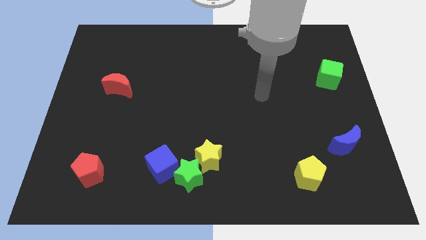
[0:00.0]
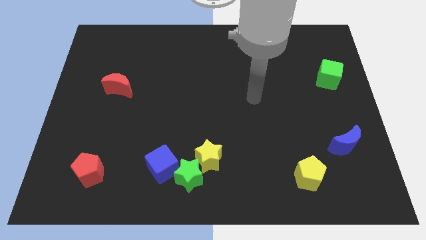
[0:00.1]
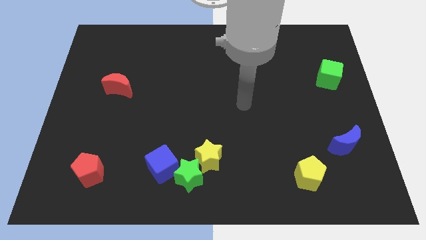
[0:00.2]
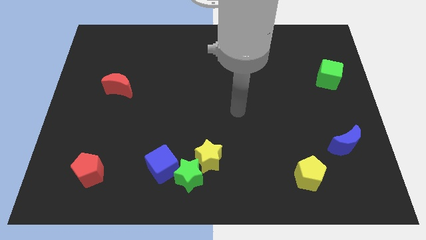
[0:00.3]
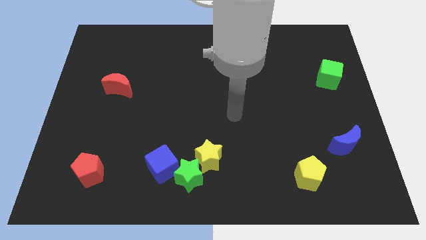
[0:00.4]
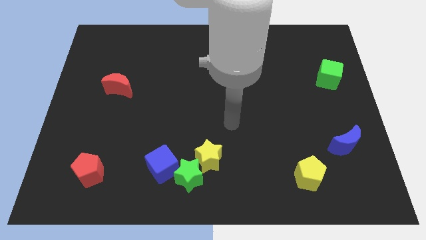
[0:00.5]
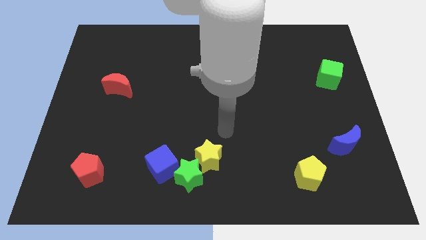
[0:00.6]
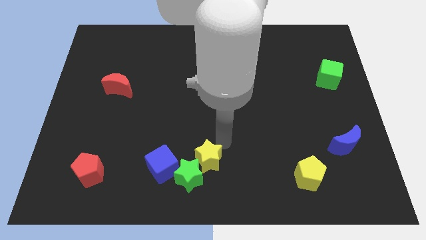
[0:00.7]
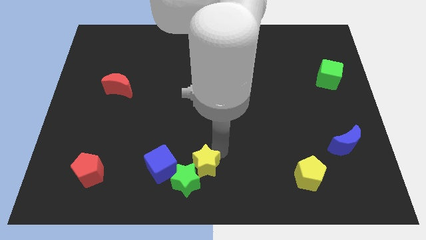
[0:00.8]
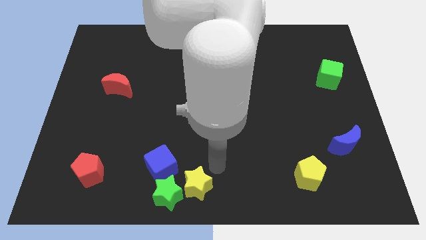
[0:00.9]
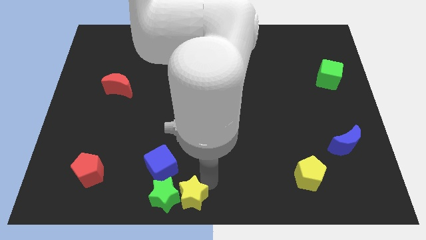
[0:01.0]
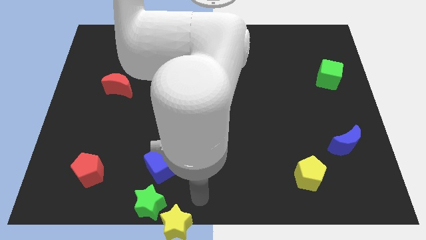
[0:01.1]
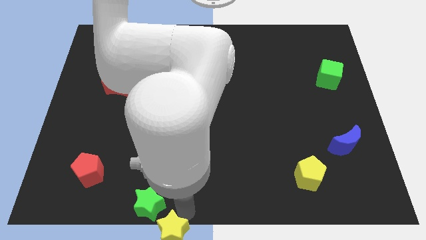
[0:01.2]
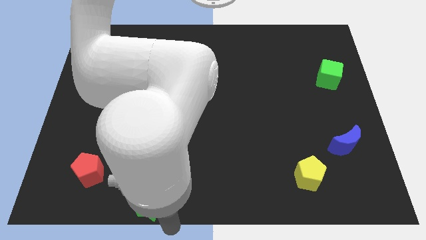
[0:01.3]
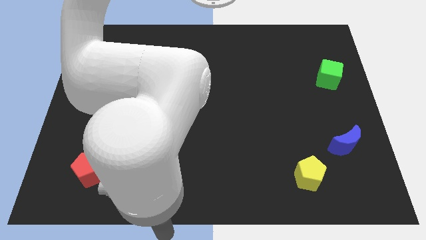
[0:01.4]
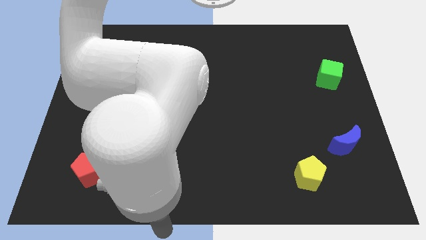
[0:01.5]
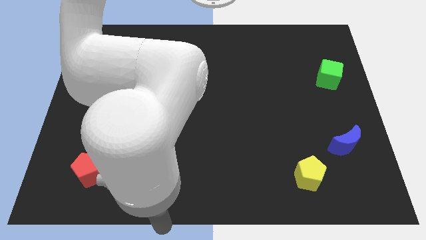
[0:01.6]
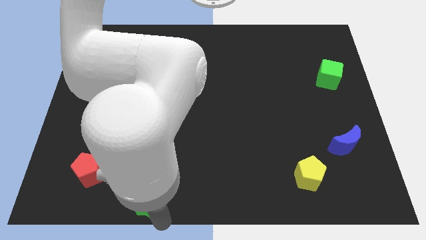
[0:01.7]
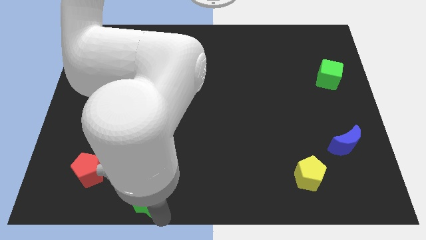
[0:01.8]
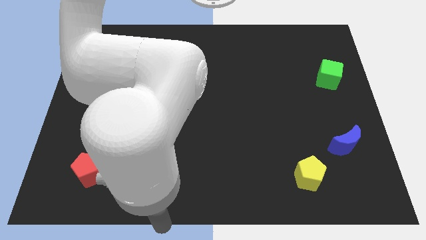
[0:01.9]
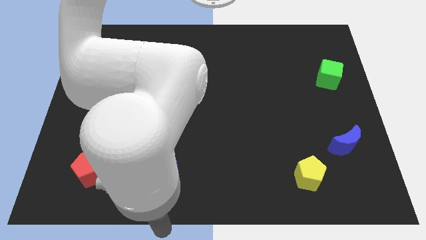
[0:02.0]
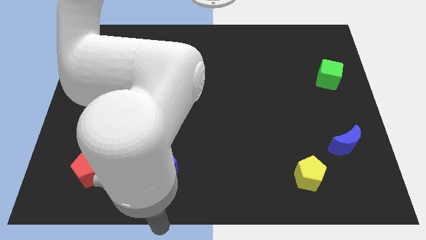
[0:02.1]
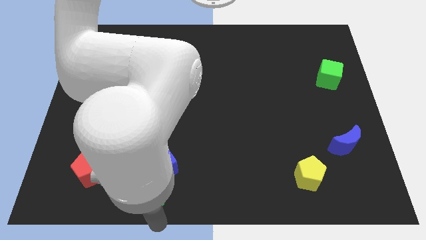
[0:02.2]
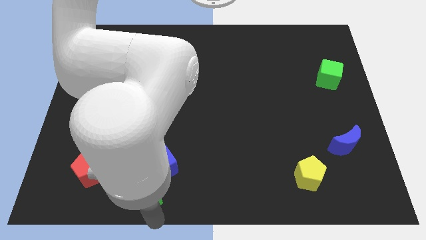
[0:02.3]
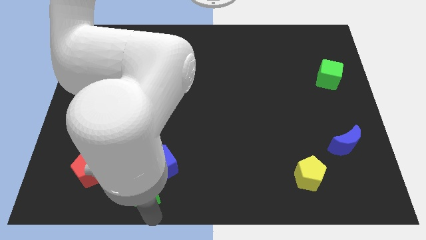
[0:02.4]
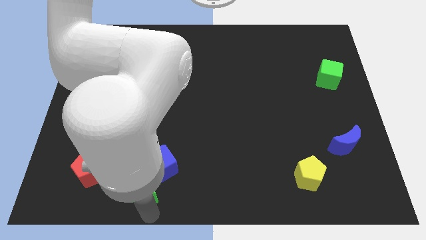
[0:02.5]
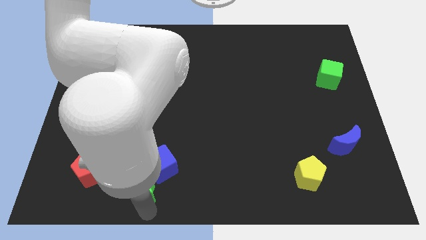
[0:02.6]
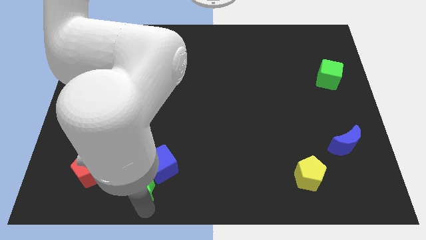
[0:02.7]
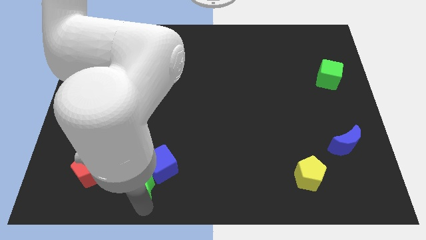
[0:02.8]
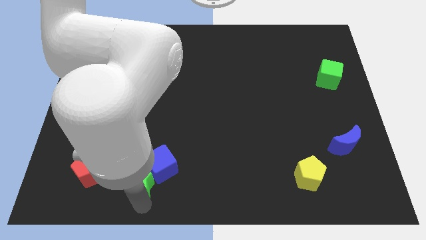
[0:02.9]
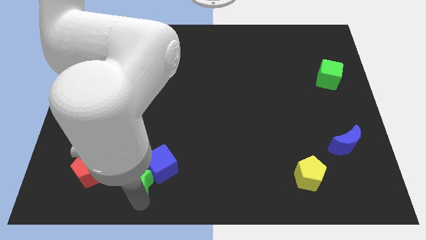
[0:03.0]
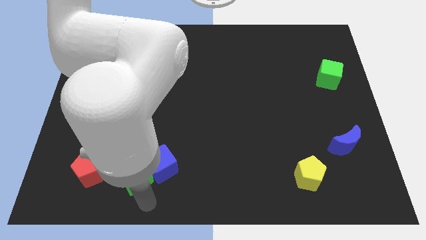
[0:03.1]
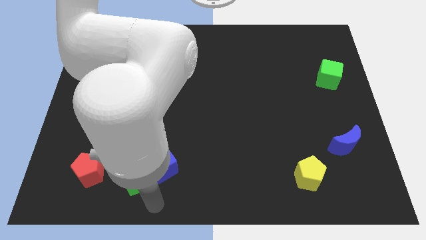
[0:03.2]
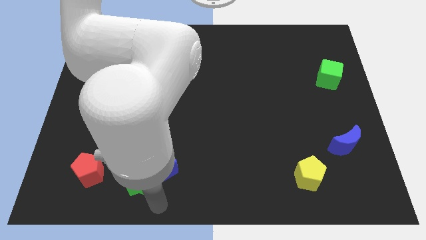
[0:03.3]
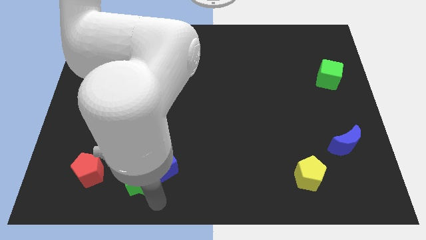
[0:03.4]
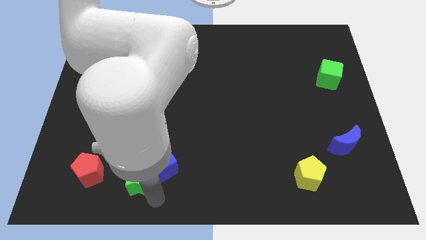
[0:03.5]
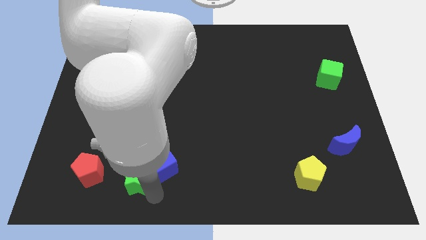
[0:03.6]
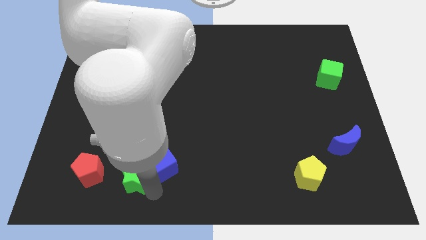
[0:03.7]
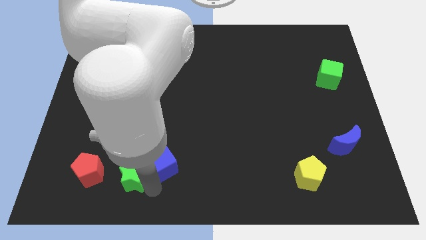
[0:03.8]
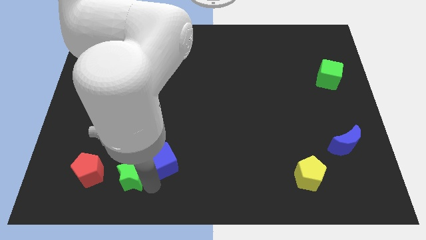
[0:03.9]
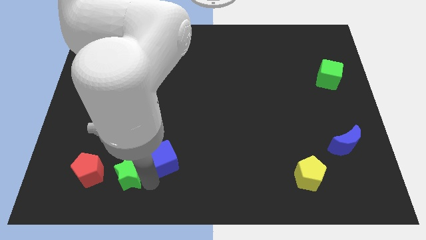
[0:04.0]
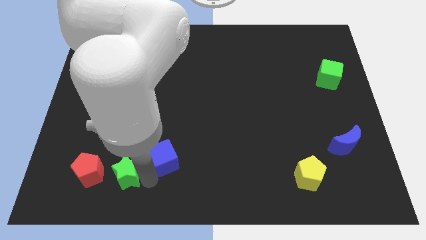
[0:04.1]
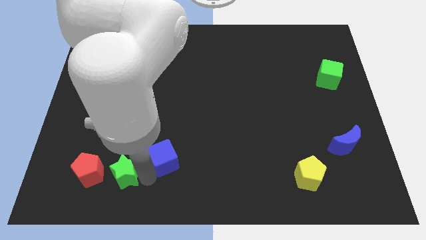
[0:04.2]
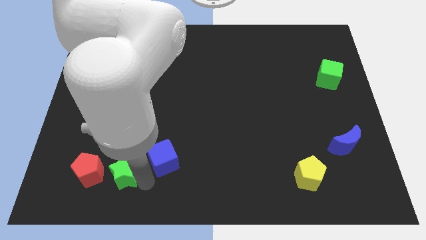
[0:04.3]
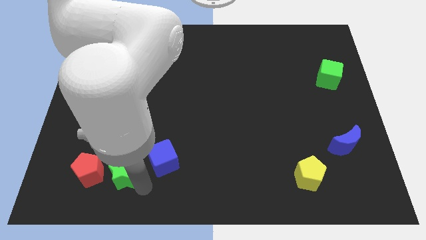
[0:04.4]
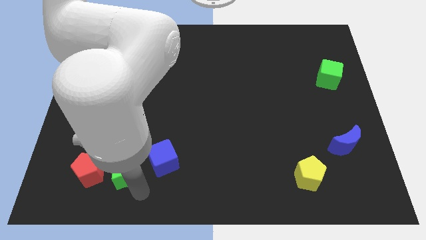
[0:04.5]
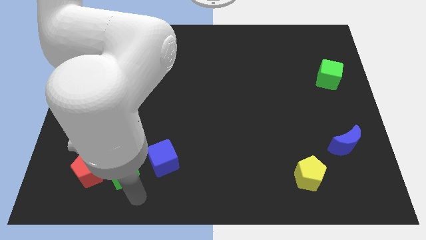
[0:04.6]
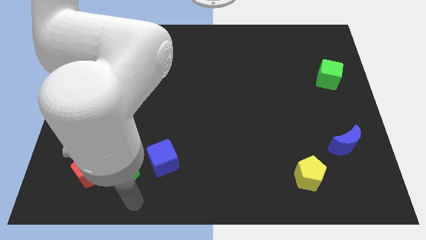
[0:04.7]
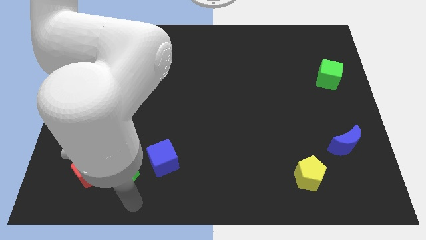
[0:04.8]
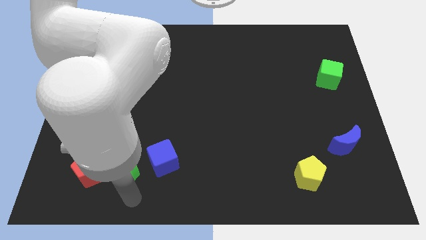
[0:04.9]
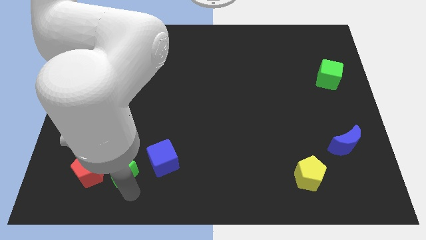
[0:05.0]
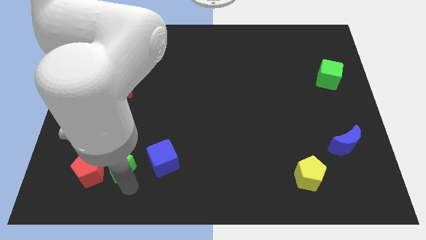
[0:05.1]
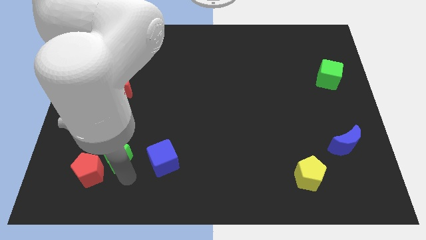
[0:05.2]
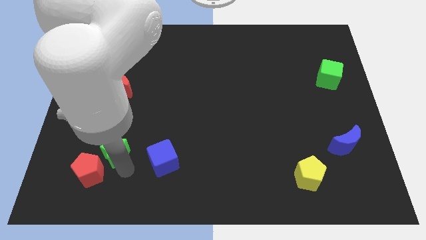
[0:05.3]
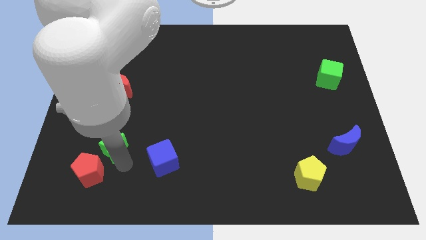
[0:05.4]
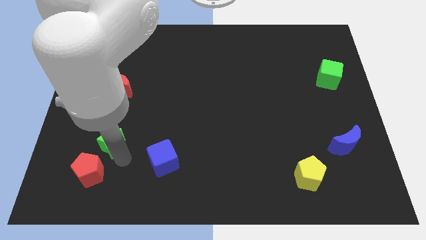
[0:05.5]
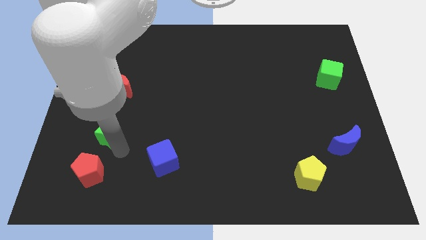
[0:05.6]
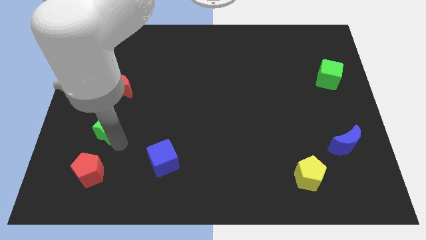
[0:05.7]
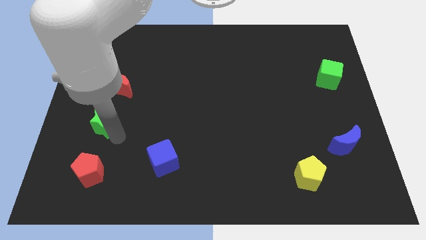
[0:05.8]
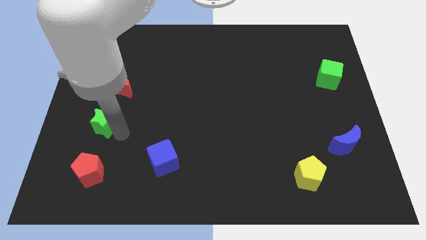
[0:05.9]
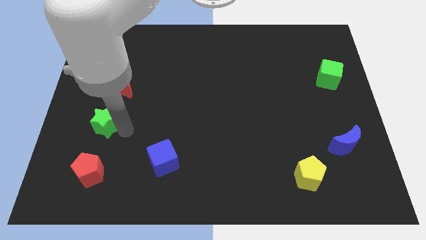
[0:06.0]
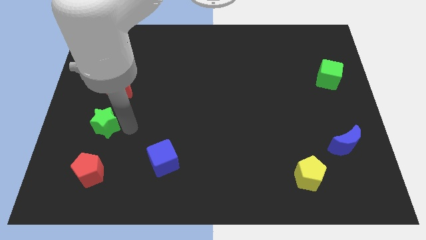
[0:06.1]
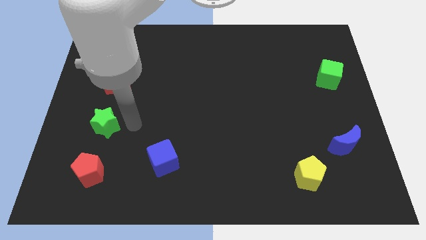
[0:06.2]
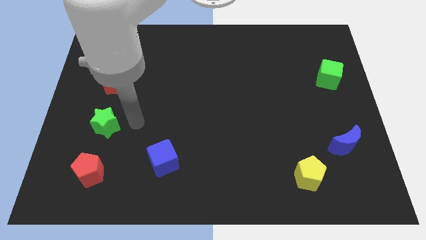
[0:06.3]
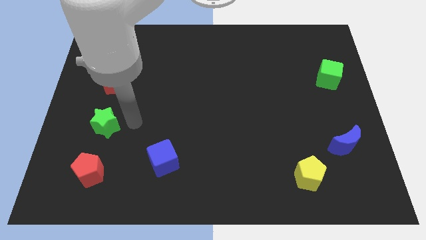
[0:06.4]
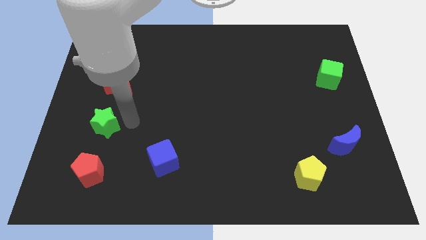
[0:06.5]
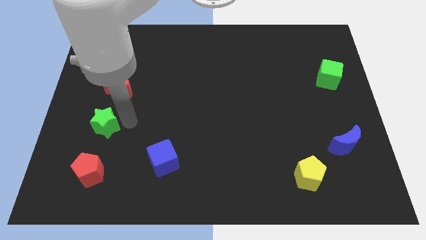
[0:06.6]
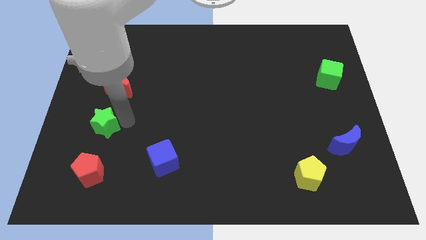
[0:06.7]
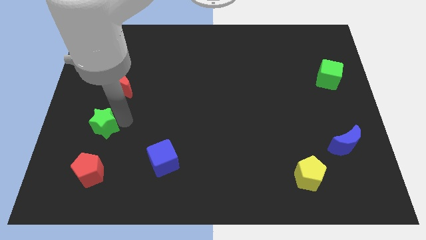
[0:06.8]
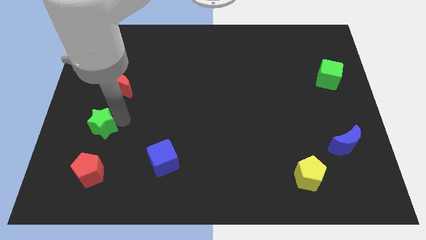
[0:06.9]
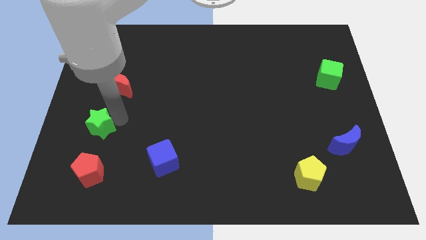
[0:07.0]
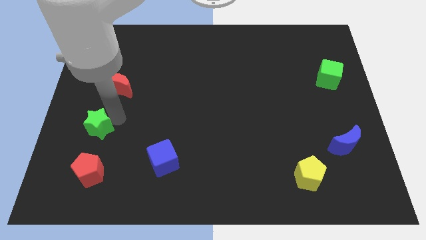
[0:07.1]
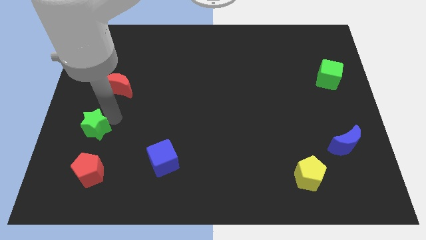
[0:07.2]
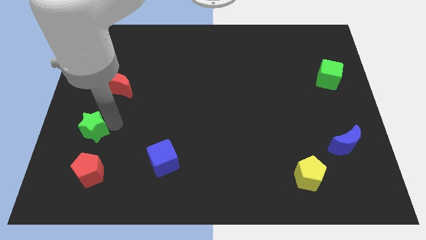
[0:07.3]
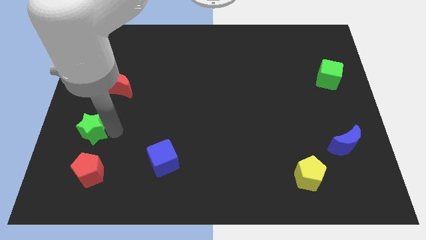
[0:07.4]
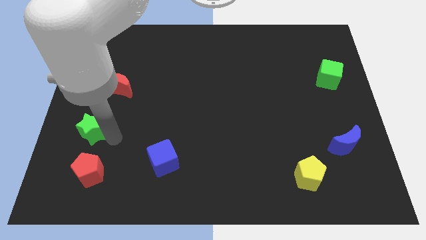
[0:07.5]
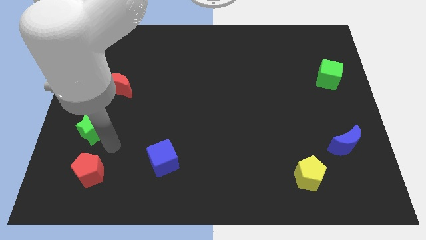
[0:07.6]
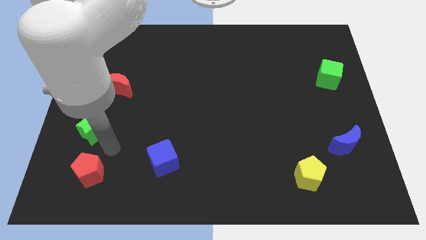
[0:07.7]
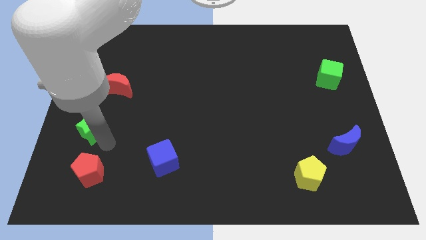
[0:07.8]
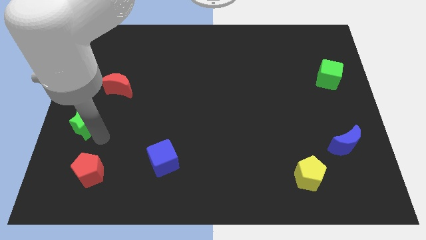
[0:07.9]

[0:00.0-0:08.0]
move the green star to the left side of the board
